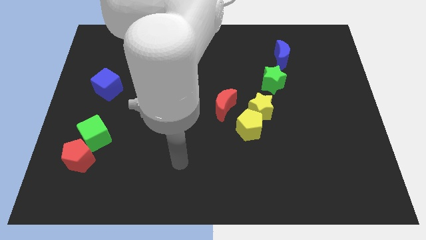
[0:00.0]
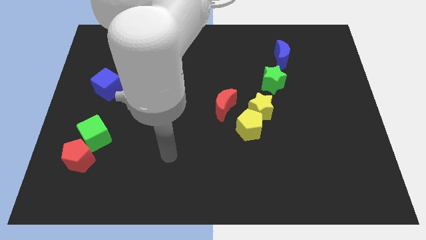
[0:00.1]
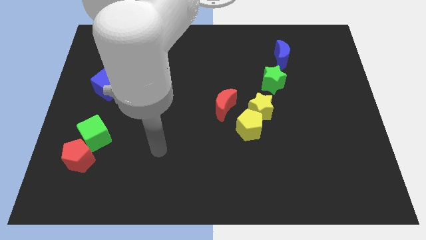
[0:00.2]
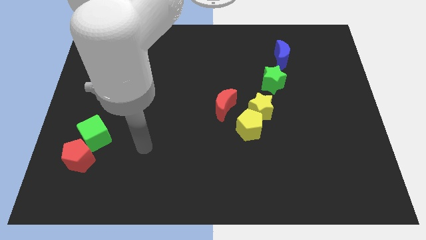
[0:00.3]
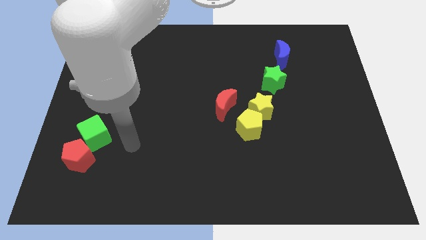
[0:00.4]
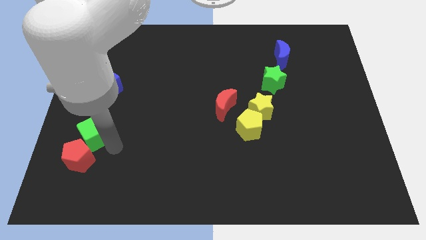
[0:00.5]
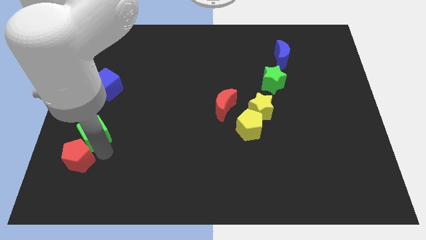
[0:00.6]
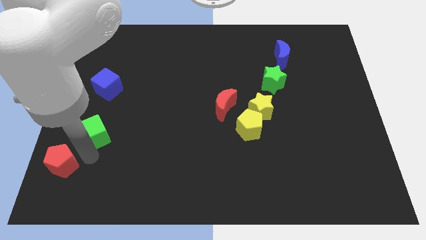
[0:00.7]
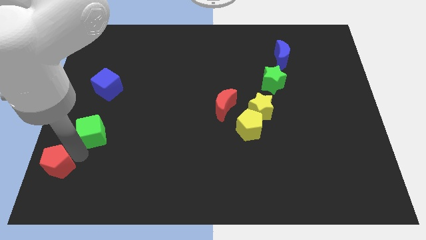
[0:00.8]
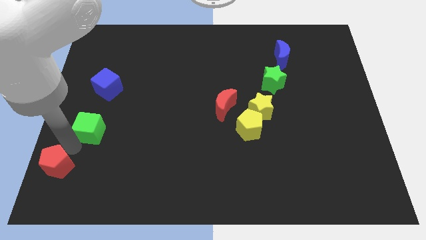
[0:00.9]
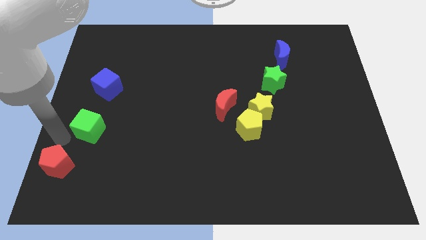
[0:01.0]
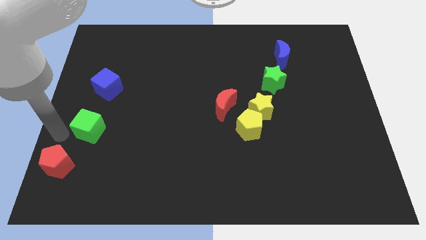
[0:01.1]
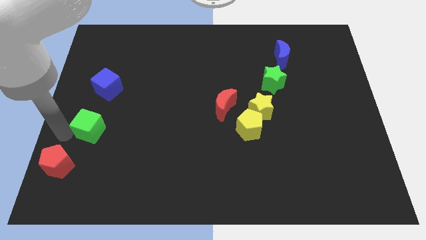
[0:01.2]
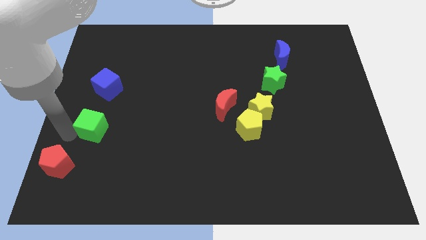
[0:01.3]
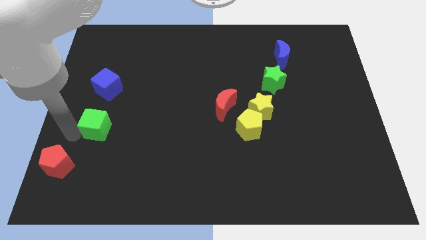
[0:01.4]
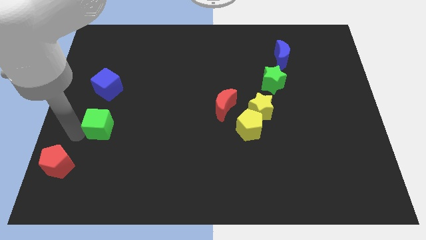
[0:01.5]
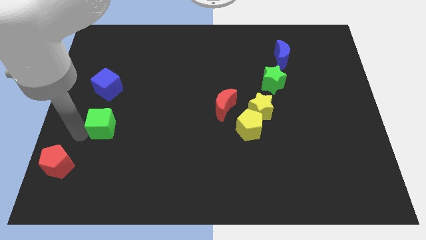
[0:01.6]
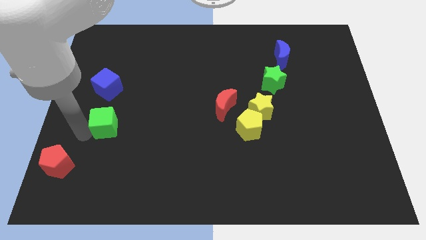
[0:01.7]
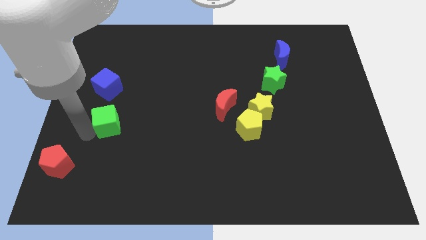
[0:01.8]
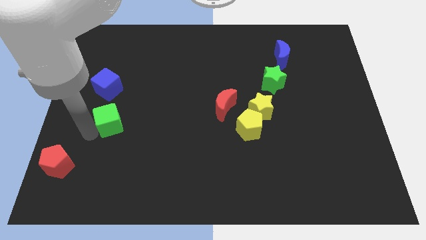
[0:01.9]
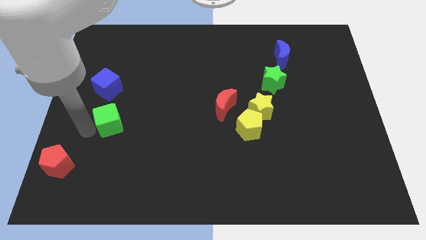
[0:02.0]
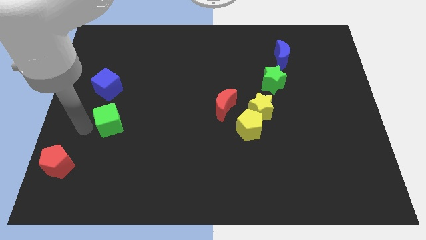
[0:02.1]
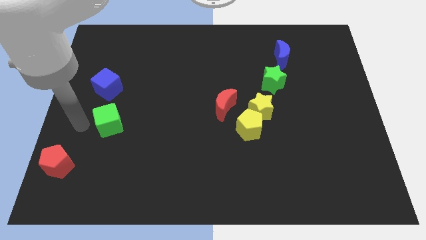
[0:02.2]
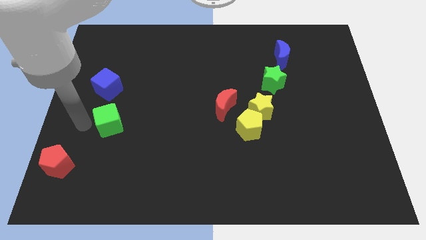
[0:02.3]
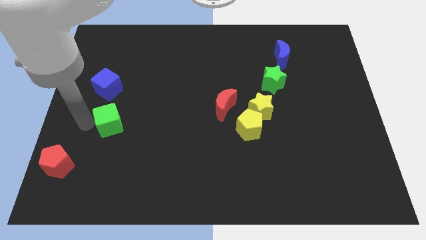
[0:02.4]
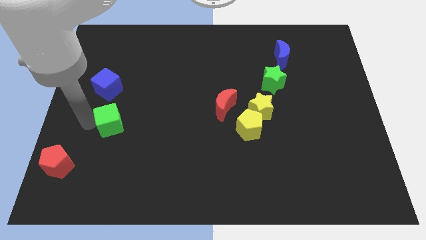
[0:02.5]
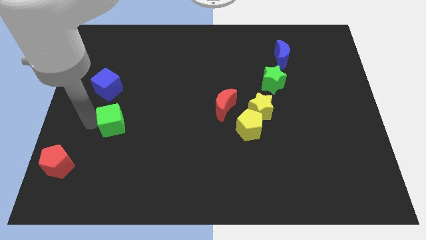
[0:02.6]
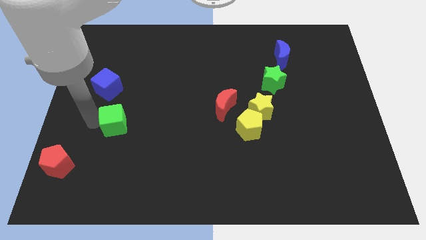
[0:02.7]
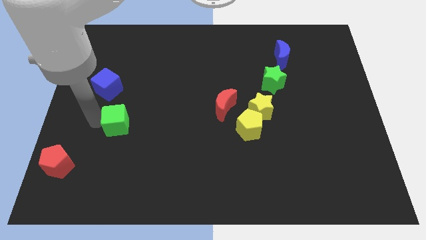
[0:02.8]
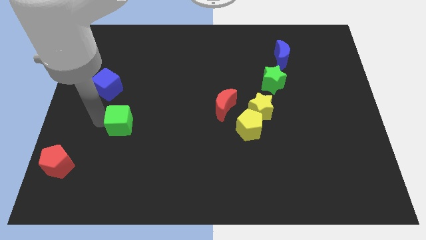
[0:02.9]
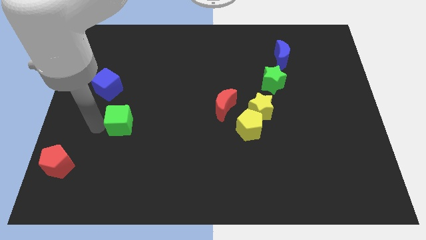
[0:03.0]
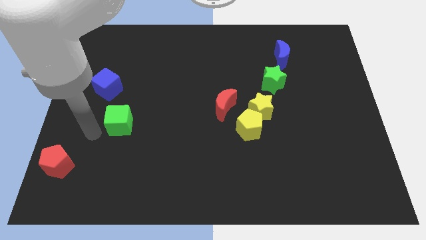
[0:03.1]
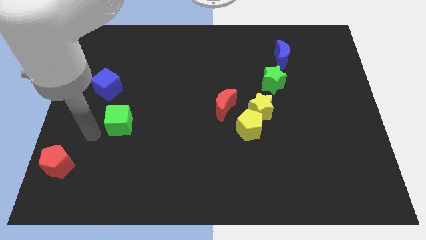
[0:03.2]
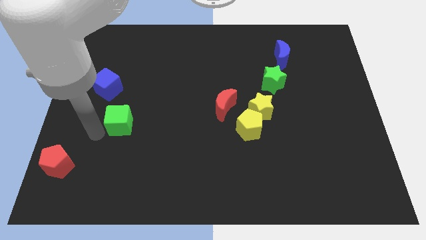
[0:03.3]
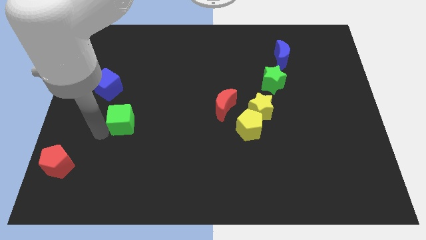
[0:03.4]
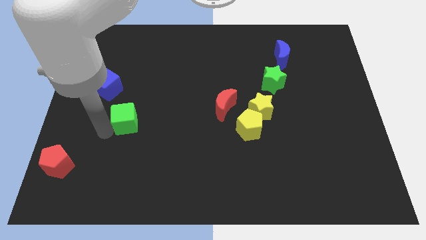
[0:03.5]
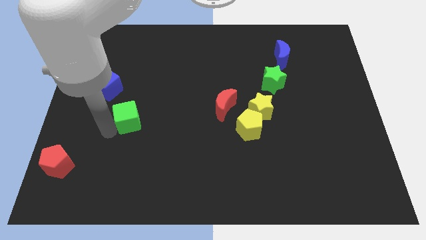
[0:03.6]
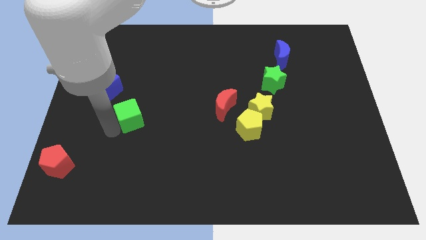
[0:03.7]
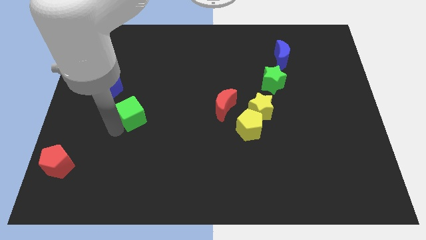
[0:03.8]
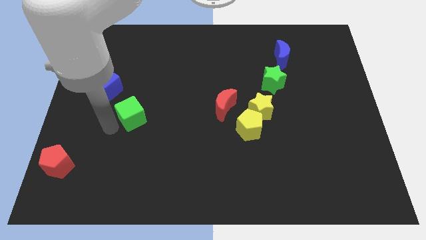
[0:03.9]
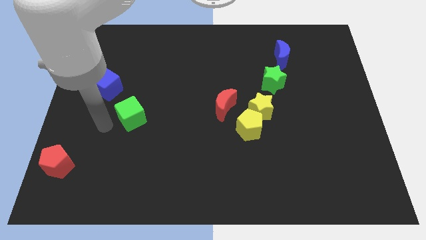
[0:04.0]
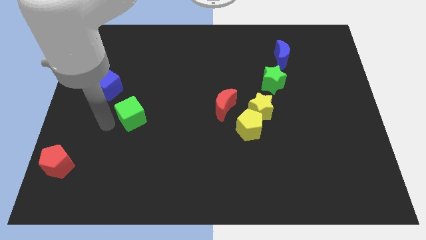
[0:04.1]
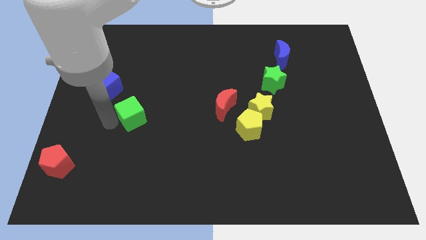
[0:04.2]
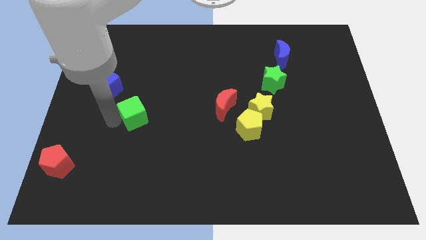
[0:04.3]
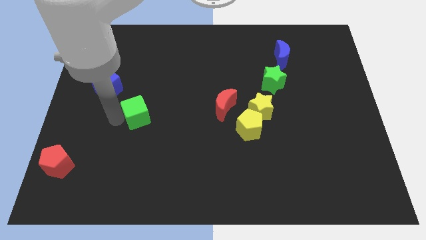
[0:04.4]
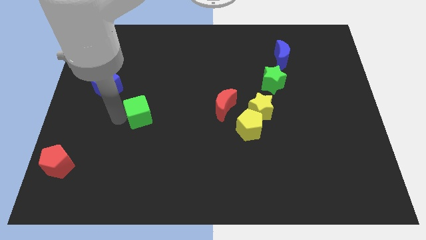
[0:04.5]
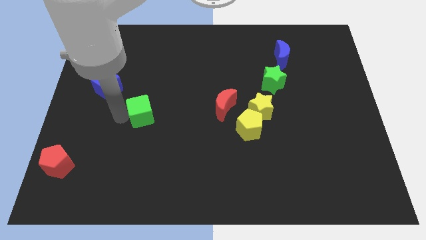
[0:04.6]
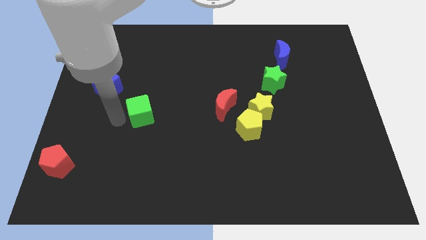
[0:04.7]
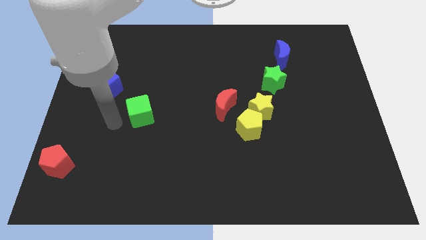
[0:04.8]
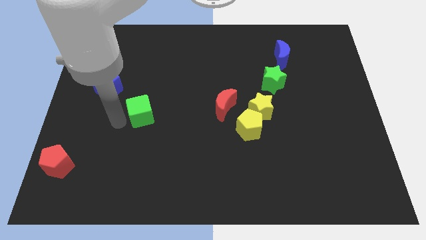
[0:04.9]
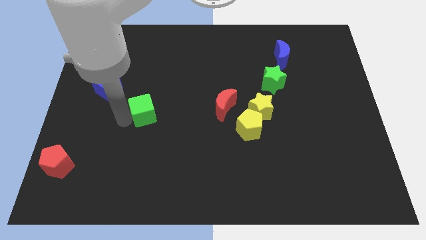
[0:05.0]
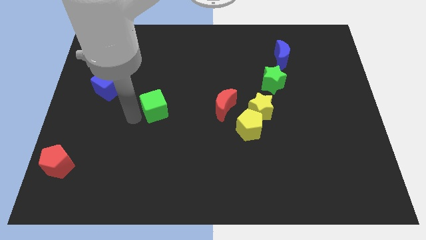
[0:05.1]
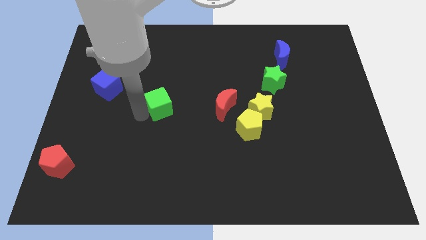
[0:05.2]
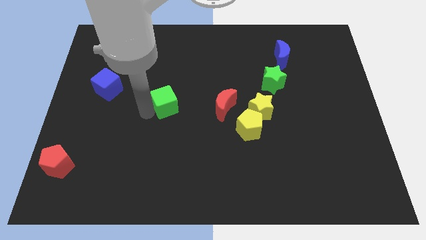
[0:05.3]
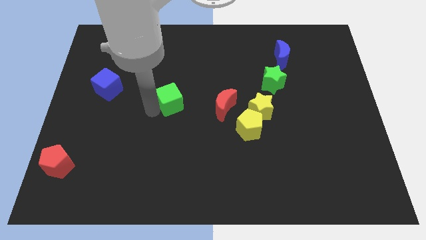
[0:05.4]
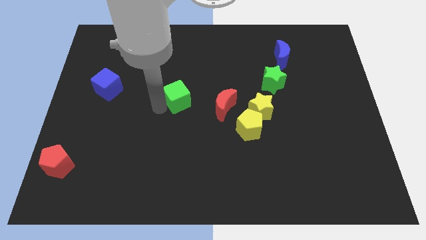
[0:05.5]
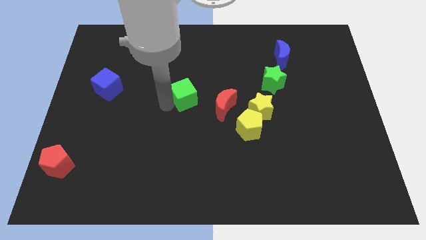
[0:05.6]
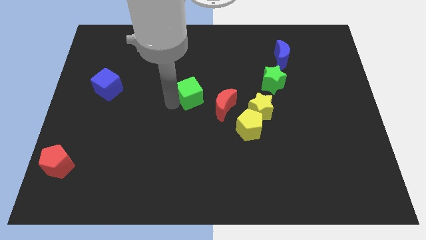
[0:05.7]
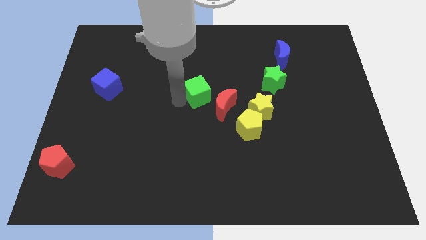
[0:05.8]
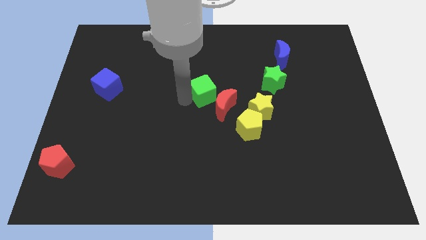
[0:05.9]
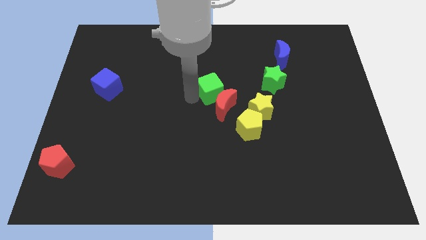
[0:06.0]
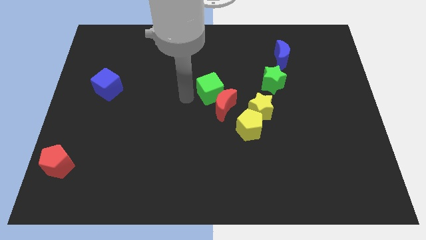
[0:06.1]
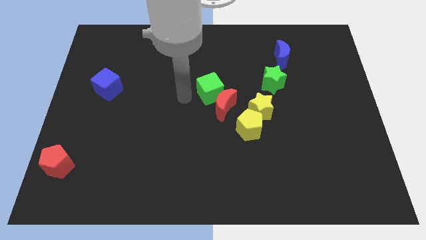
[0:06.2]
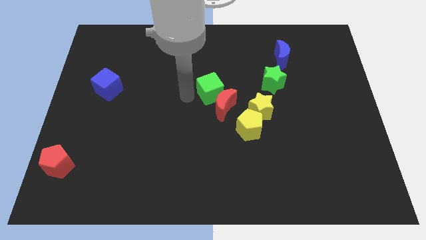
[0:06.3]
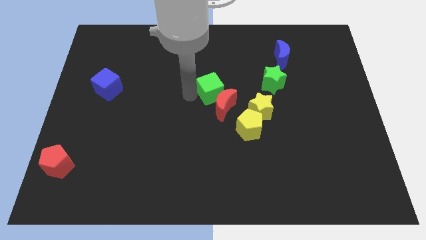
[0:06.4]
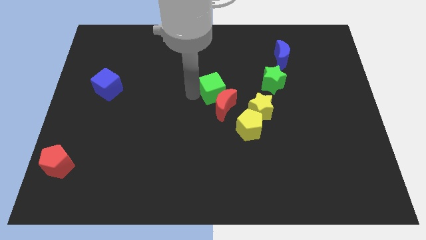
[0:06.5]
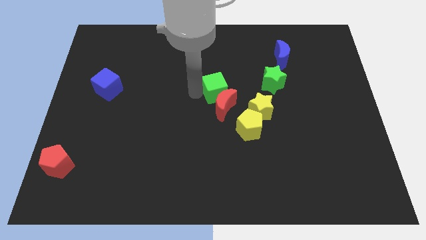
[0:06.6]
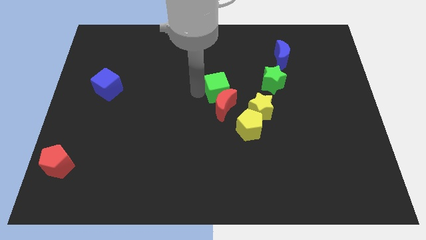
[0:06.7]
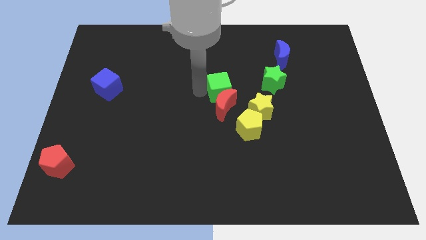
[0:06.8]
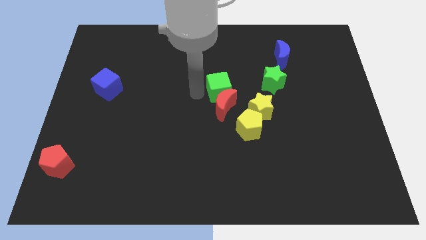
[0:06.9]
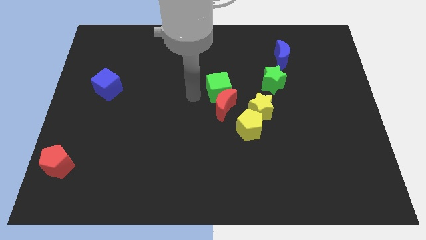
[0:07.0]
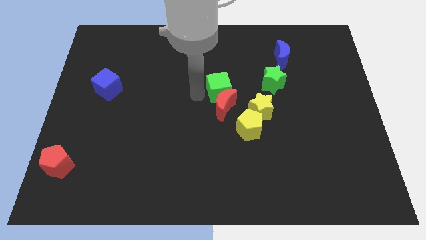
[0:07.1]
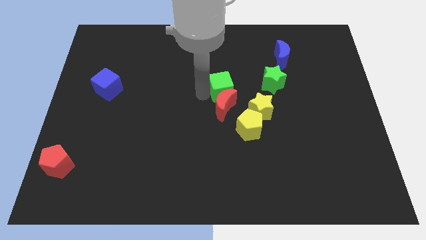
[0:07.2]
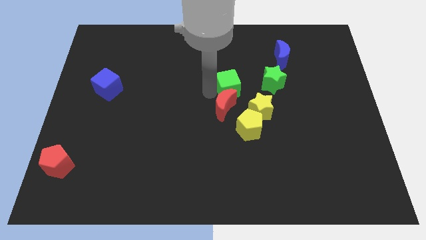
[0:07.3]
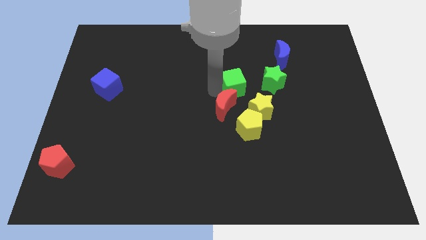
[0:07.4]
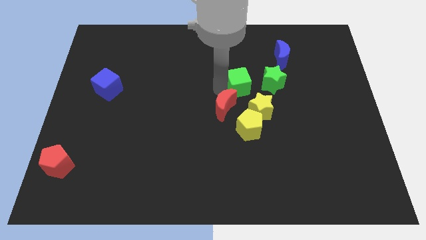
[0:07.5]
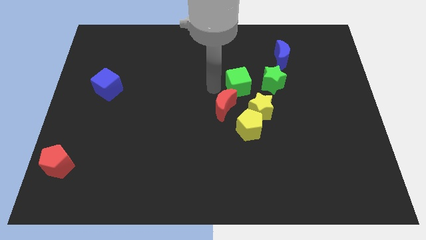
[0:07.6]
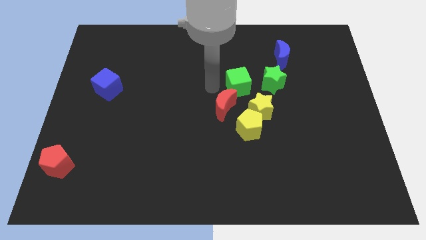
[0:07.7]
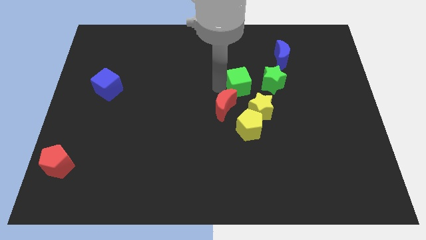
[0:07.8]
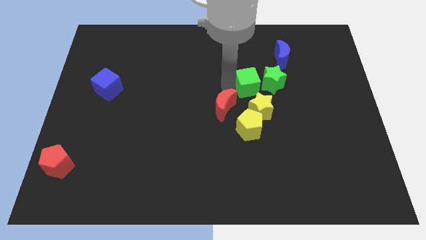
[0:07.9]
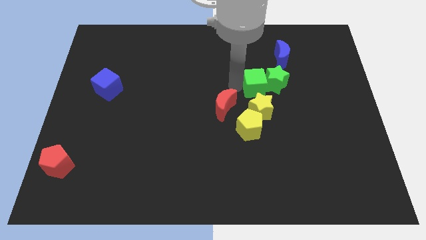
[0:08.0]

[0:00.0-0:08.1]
slide the green cube close to the green star
